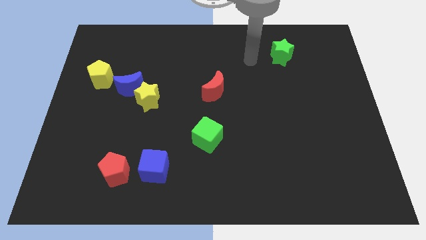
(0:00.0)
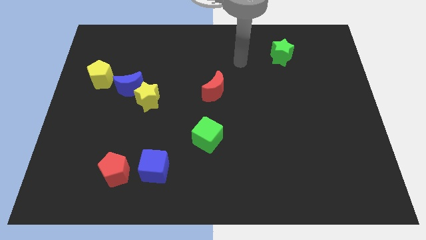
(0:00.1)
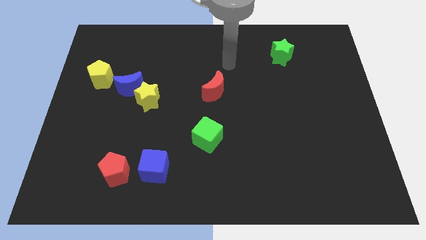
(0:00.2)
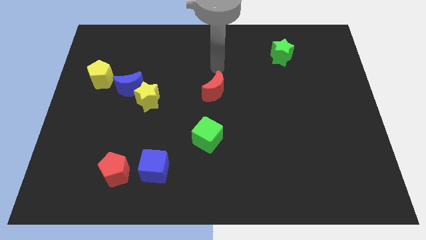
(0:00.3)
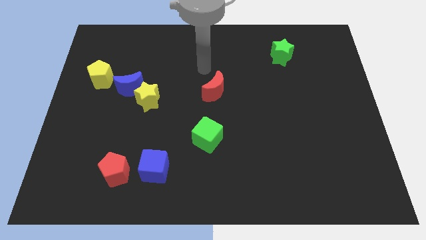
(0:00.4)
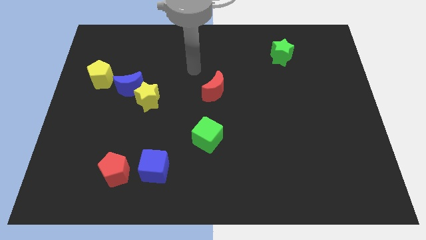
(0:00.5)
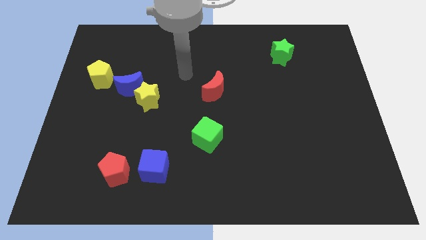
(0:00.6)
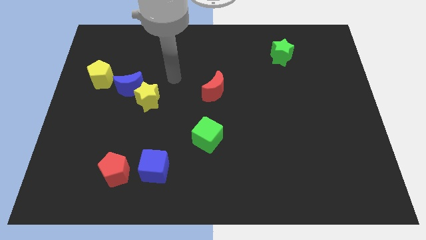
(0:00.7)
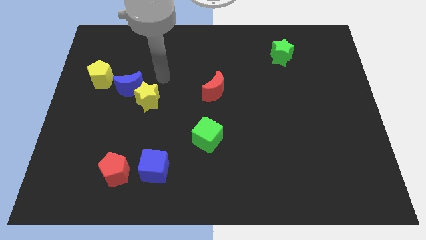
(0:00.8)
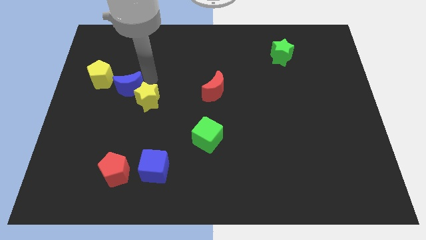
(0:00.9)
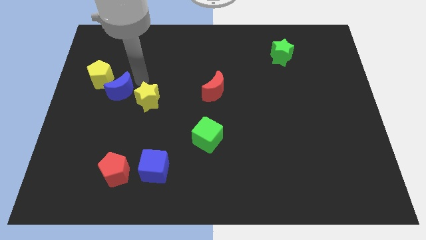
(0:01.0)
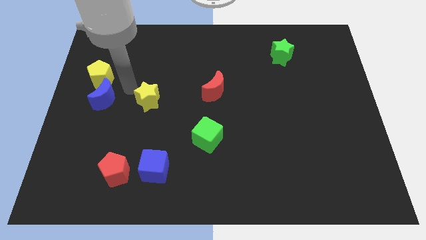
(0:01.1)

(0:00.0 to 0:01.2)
separate the yellow star from the blue moon

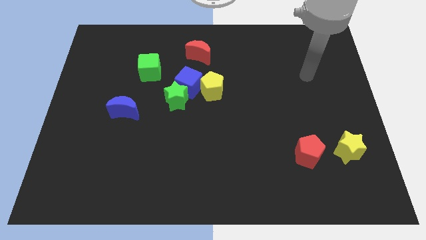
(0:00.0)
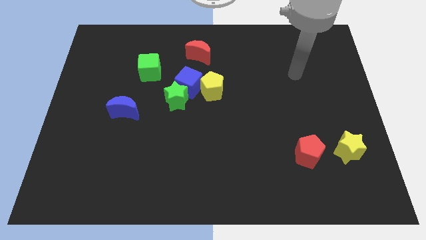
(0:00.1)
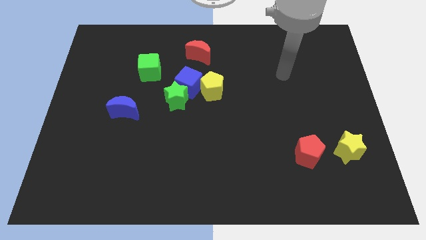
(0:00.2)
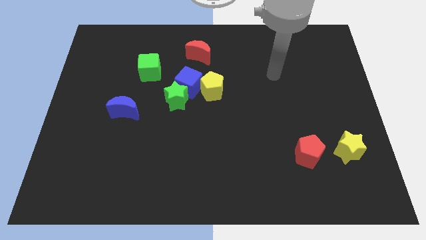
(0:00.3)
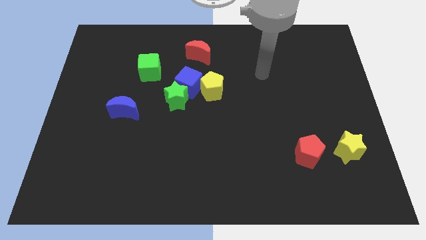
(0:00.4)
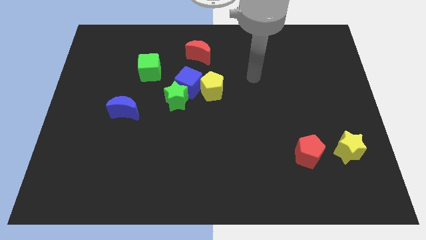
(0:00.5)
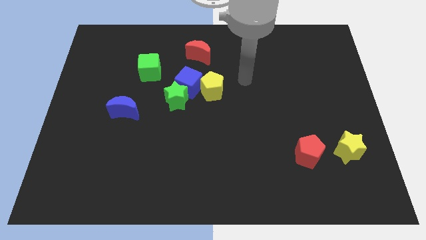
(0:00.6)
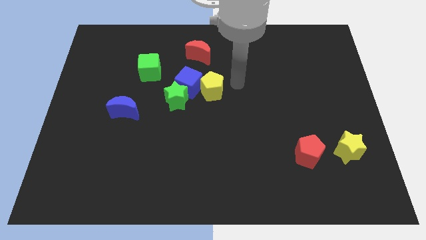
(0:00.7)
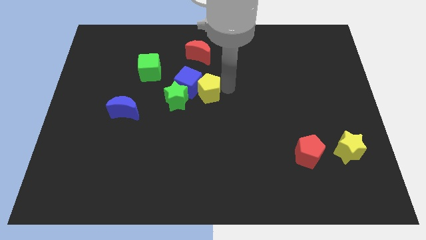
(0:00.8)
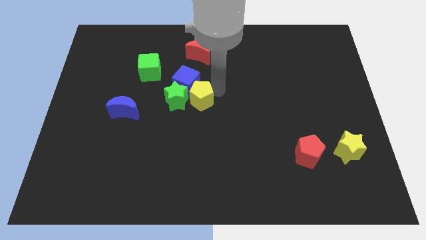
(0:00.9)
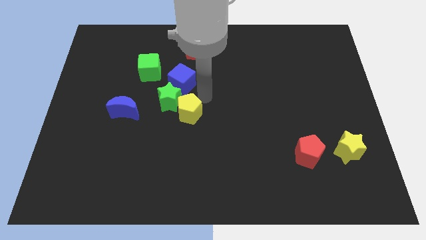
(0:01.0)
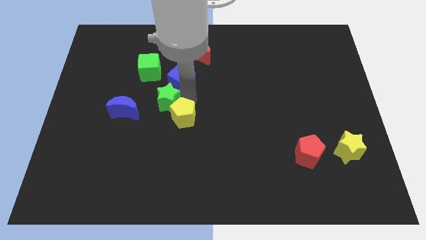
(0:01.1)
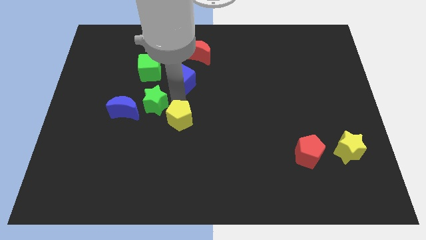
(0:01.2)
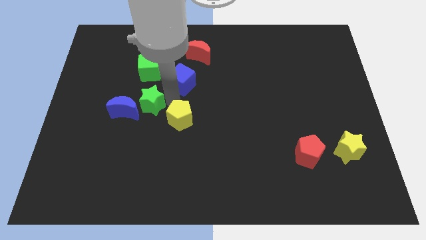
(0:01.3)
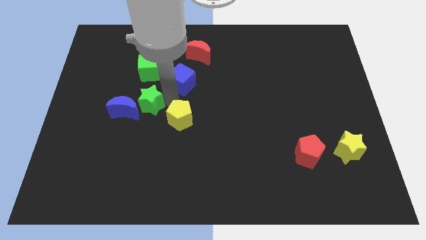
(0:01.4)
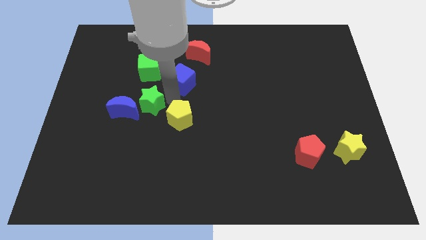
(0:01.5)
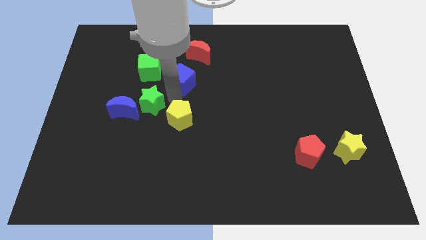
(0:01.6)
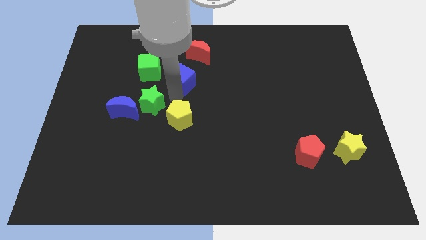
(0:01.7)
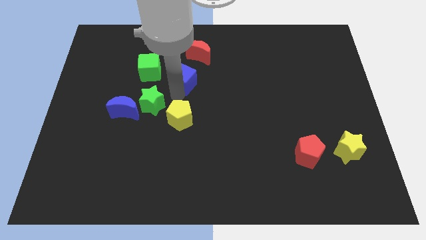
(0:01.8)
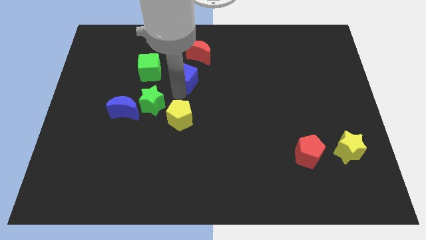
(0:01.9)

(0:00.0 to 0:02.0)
separate the blue cube from the green star and yellow pentagon

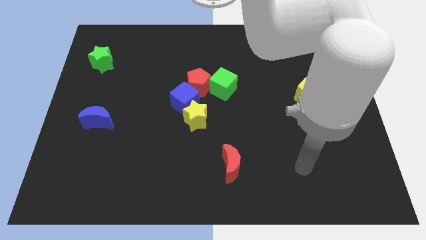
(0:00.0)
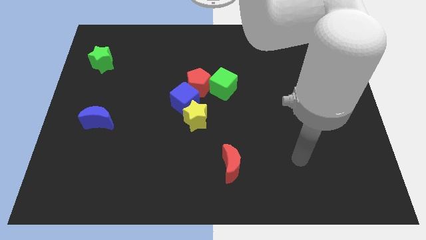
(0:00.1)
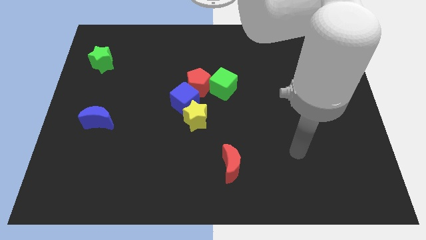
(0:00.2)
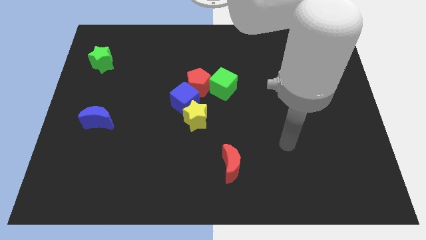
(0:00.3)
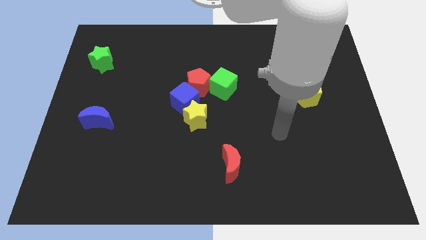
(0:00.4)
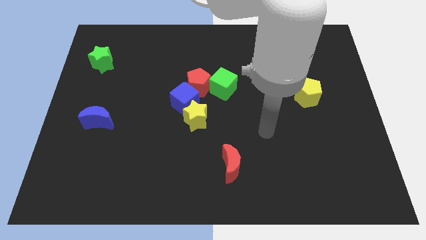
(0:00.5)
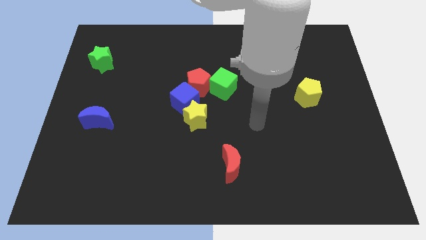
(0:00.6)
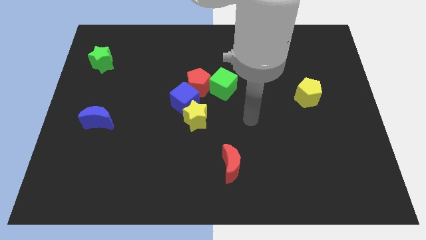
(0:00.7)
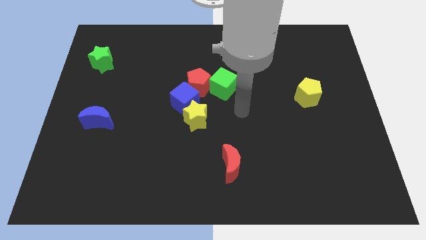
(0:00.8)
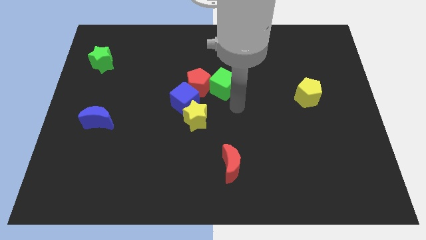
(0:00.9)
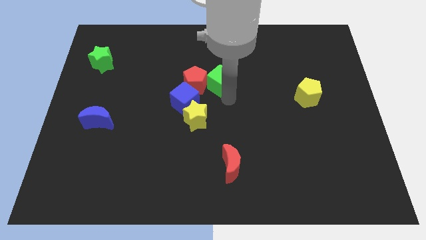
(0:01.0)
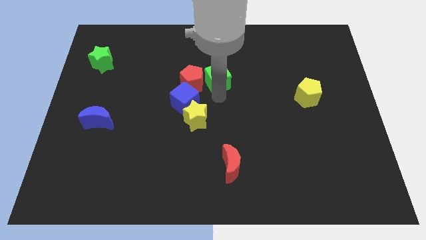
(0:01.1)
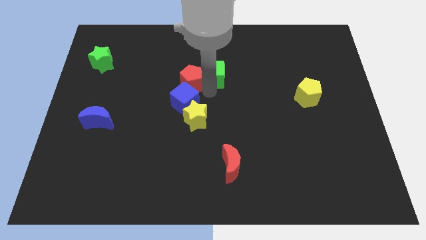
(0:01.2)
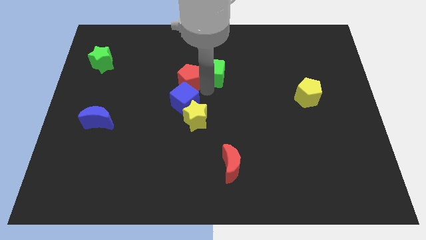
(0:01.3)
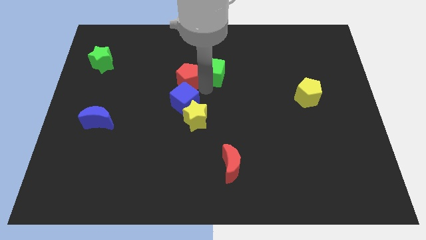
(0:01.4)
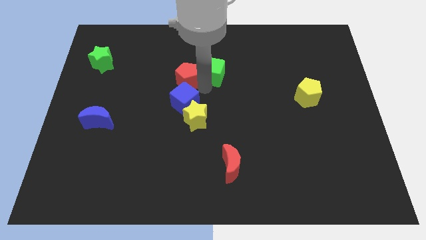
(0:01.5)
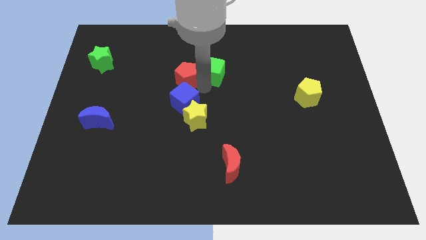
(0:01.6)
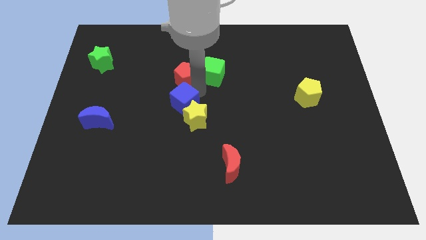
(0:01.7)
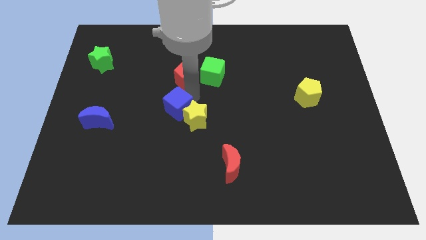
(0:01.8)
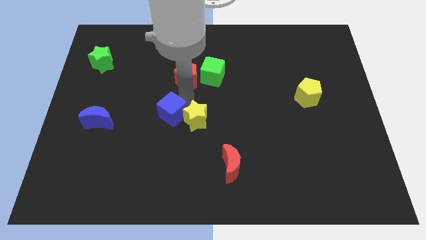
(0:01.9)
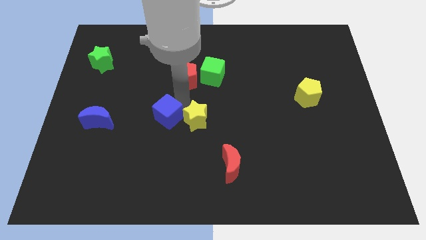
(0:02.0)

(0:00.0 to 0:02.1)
pull the blue cube apart from the yellow star, red pentagon, and green cube

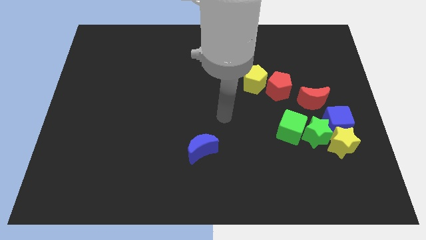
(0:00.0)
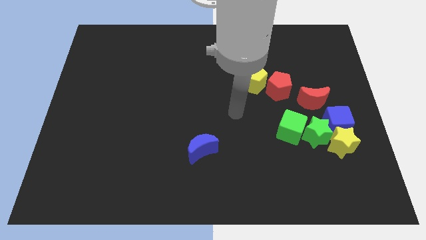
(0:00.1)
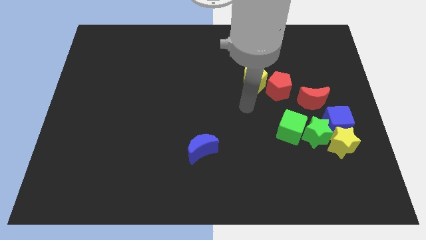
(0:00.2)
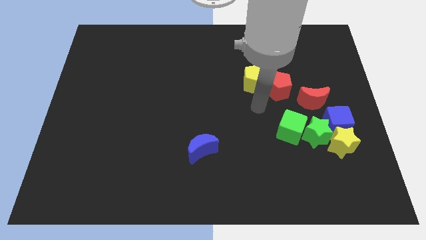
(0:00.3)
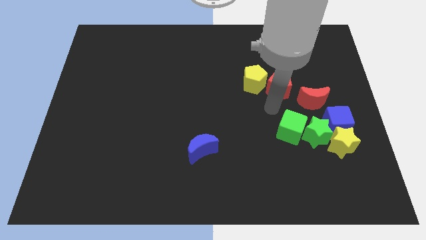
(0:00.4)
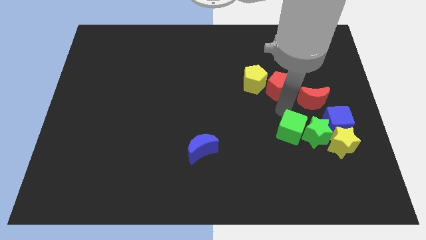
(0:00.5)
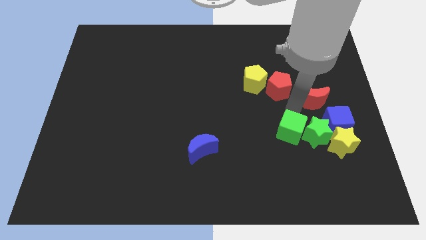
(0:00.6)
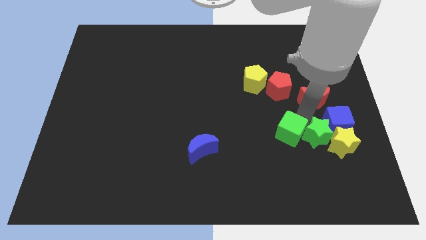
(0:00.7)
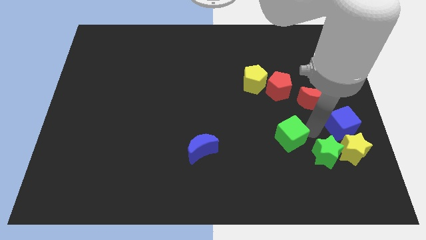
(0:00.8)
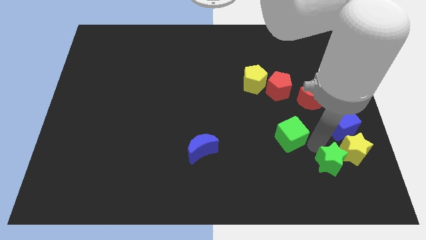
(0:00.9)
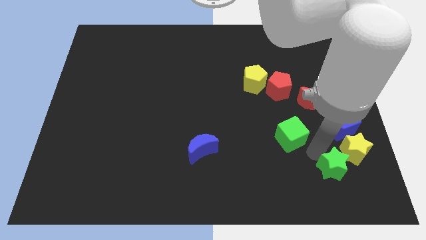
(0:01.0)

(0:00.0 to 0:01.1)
move the green cube away from the green star

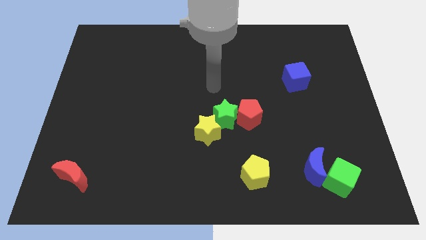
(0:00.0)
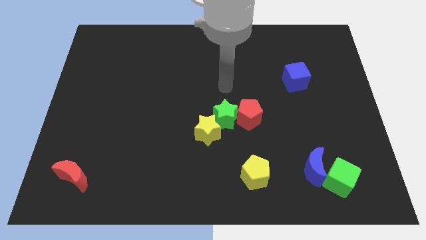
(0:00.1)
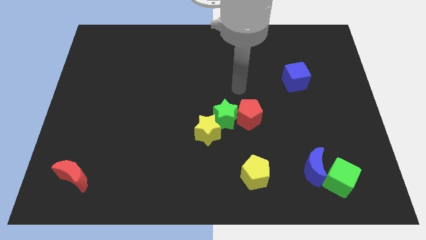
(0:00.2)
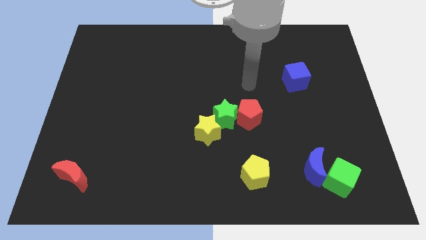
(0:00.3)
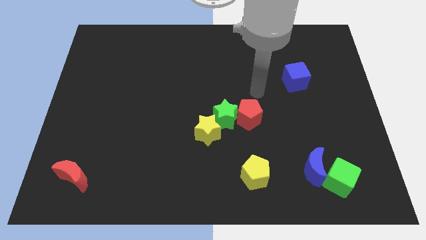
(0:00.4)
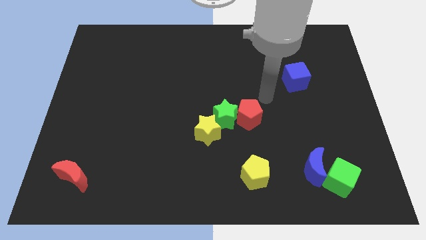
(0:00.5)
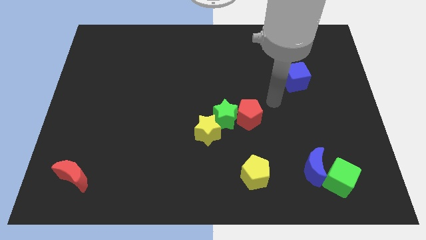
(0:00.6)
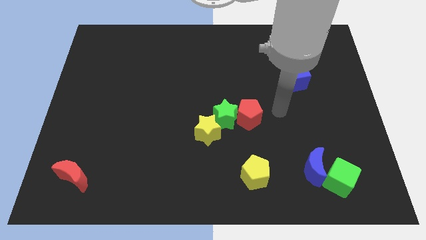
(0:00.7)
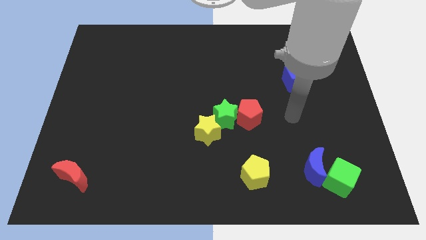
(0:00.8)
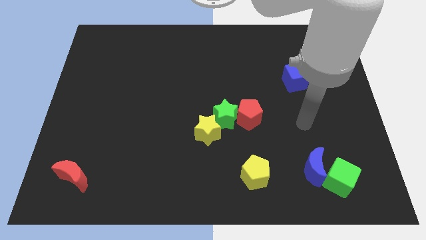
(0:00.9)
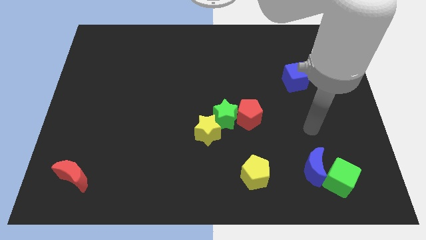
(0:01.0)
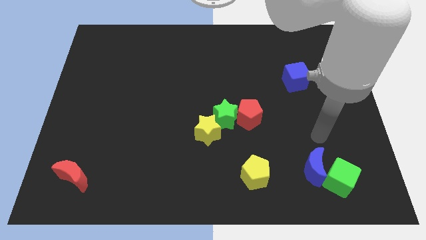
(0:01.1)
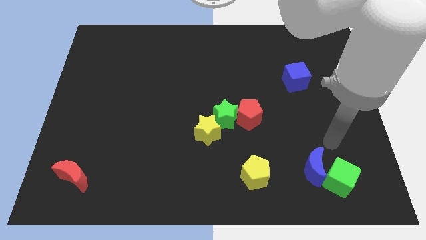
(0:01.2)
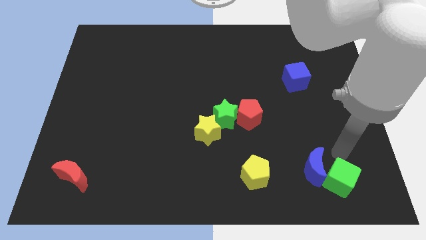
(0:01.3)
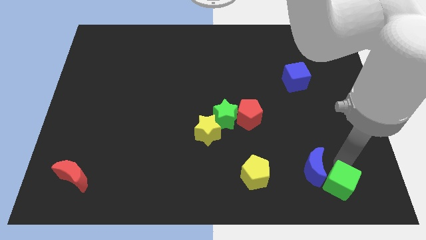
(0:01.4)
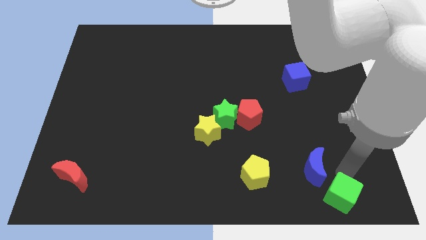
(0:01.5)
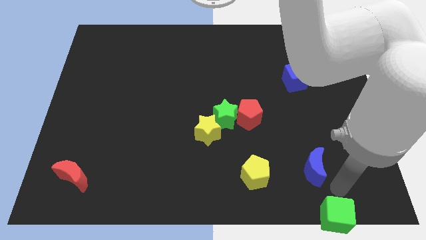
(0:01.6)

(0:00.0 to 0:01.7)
pull the blue moon apart from the green cube

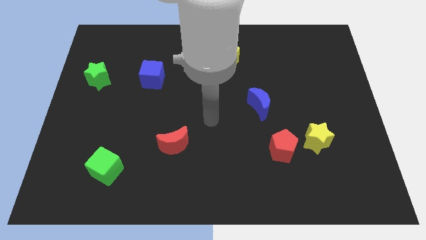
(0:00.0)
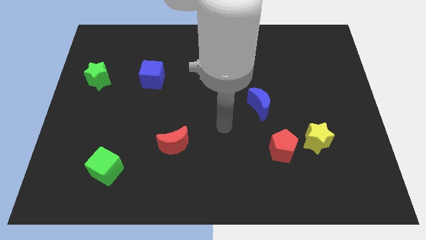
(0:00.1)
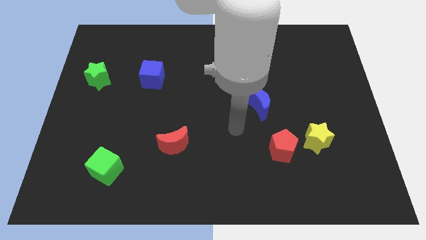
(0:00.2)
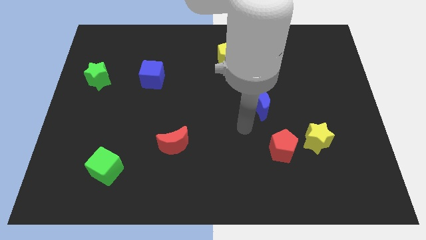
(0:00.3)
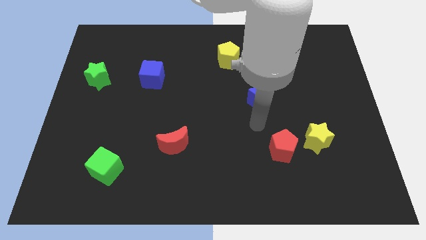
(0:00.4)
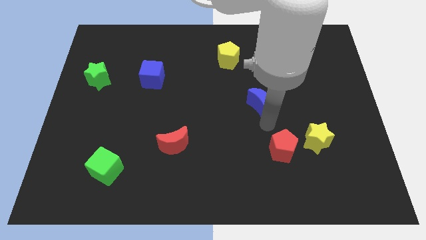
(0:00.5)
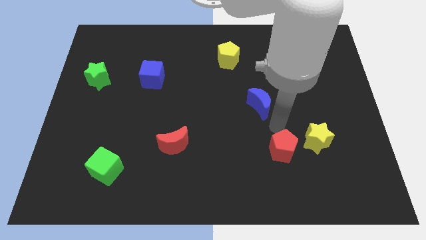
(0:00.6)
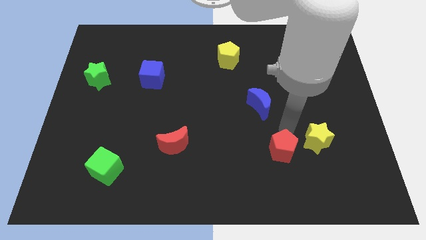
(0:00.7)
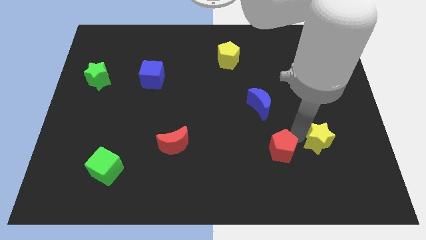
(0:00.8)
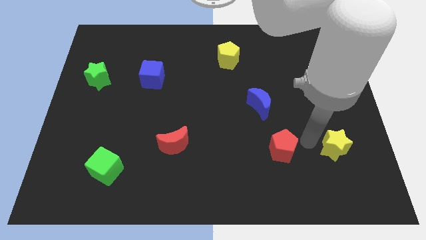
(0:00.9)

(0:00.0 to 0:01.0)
pull the red pentagon apart from the yellow star
